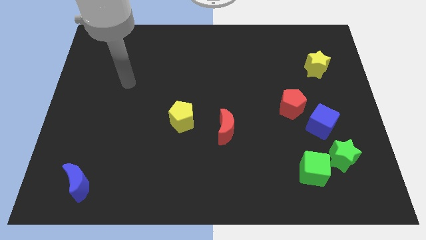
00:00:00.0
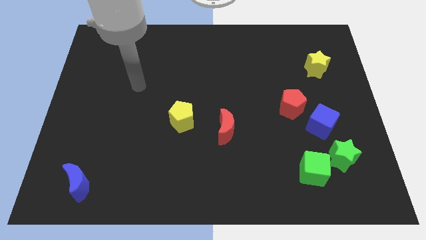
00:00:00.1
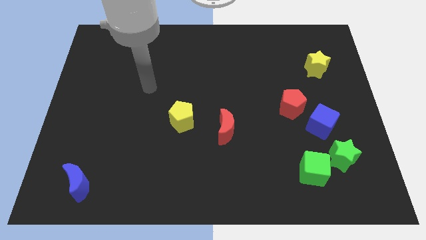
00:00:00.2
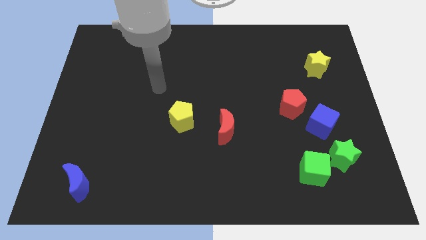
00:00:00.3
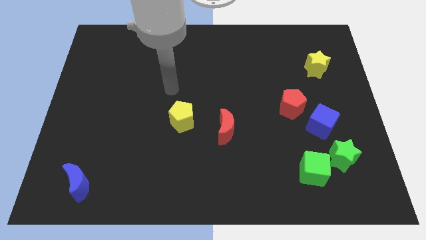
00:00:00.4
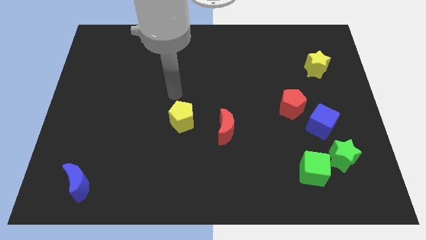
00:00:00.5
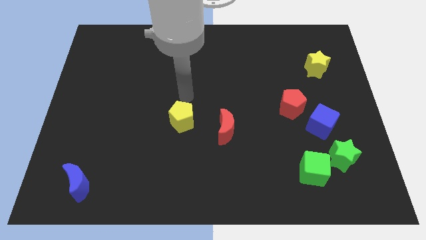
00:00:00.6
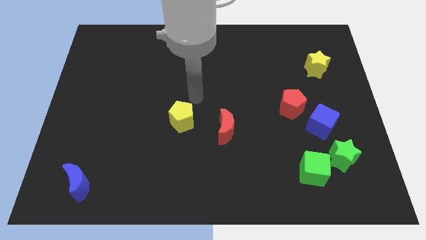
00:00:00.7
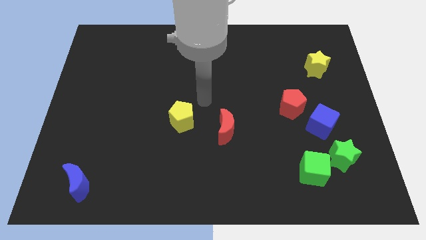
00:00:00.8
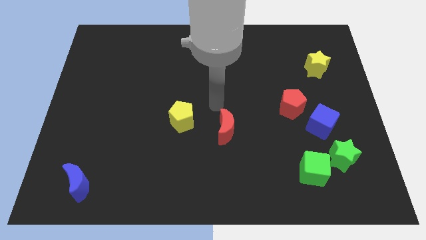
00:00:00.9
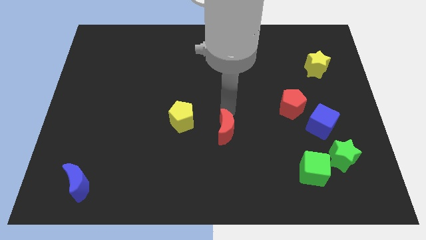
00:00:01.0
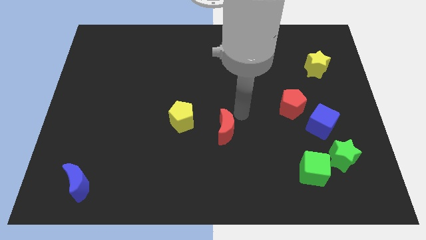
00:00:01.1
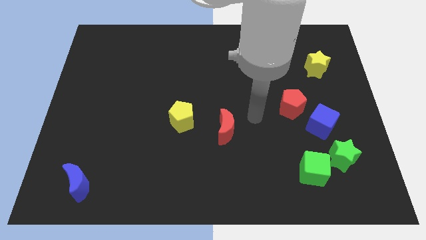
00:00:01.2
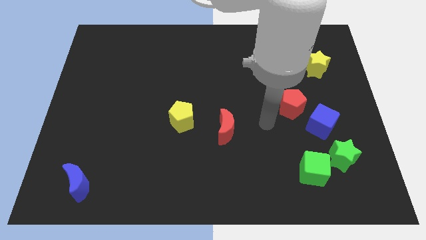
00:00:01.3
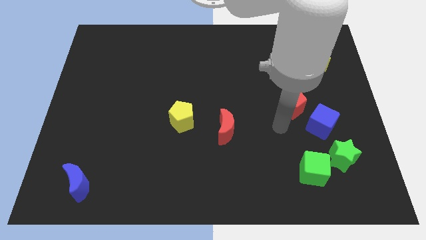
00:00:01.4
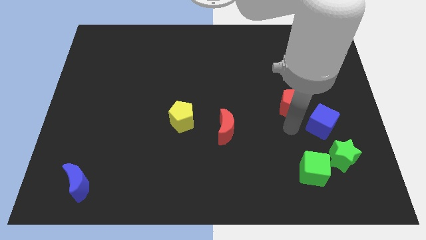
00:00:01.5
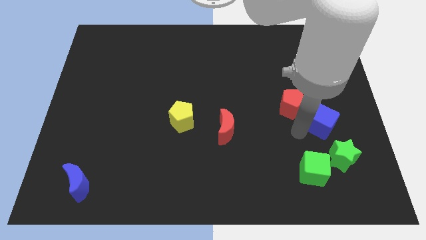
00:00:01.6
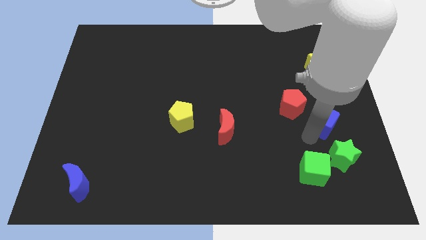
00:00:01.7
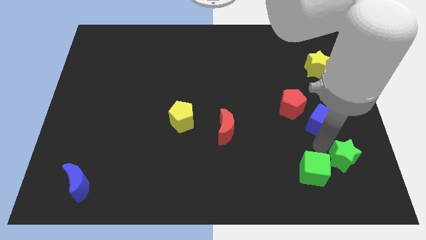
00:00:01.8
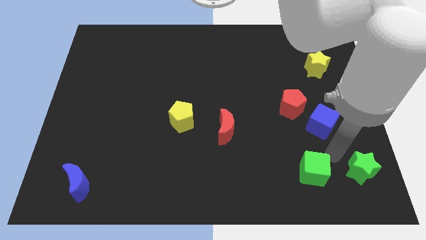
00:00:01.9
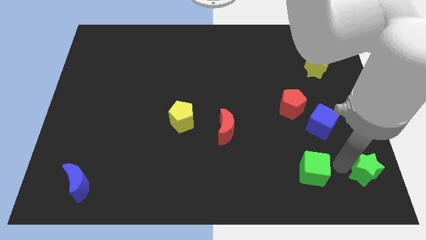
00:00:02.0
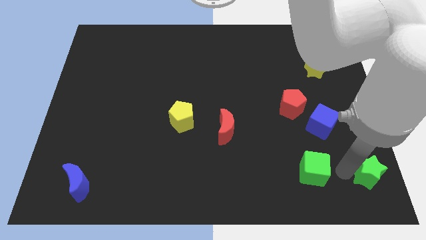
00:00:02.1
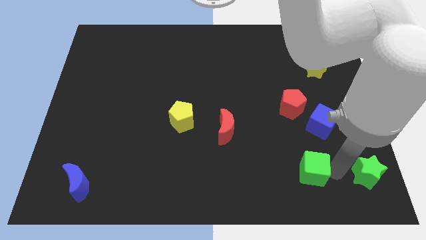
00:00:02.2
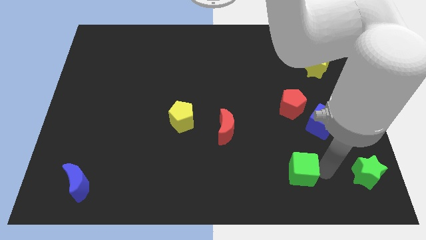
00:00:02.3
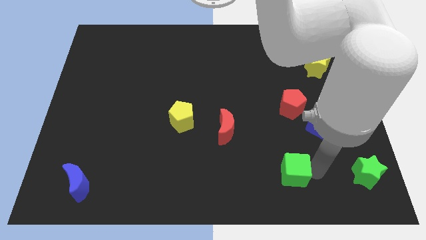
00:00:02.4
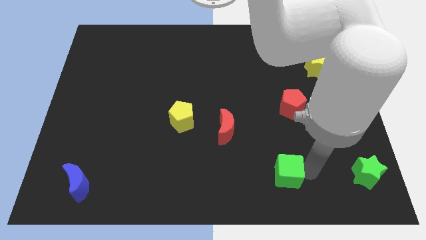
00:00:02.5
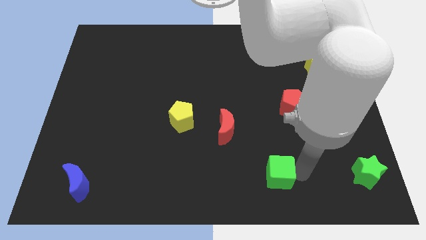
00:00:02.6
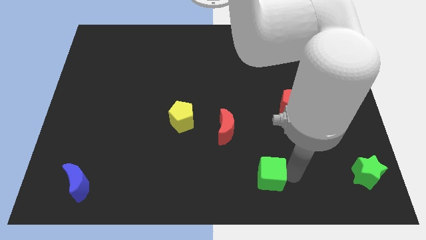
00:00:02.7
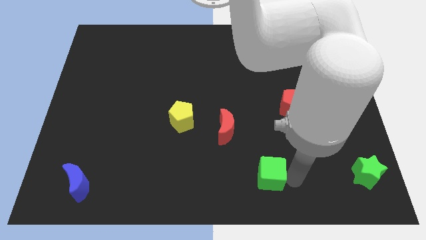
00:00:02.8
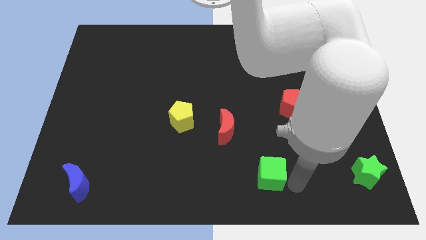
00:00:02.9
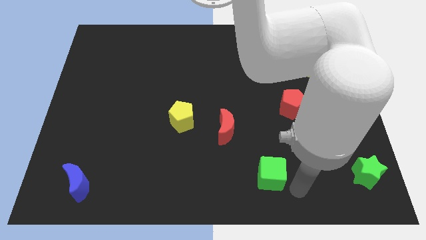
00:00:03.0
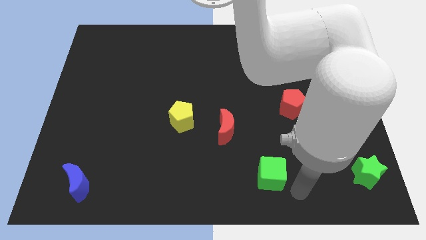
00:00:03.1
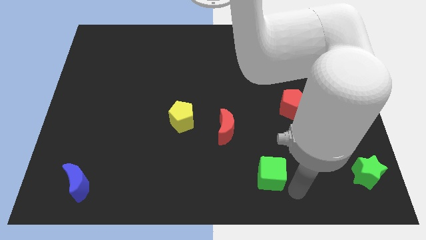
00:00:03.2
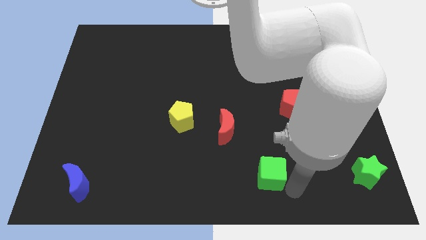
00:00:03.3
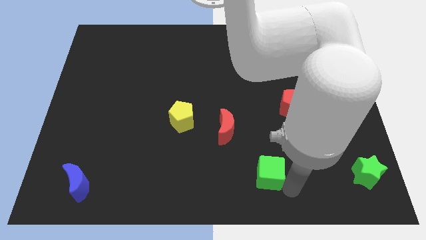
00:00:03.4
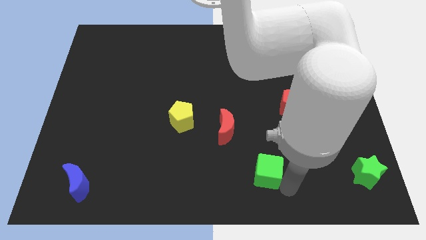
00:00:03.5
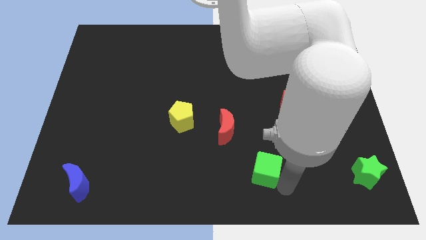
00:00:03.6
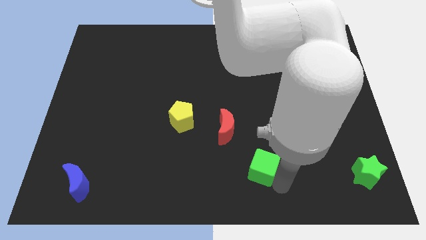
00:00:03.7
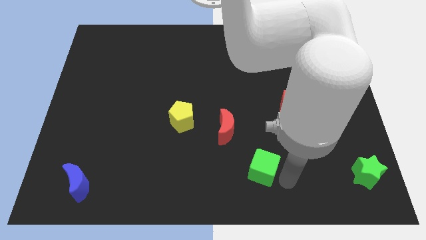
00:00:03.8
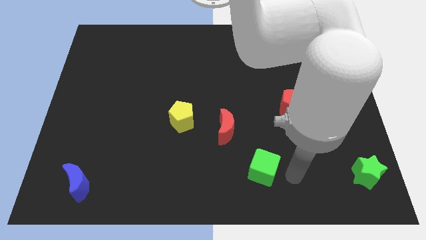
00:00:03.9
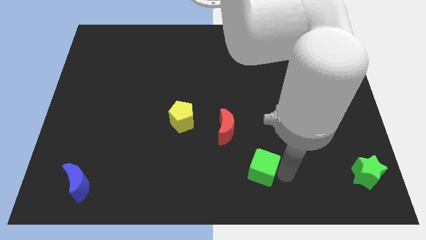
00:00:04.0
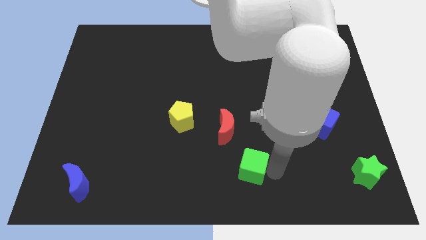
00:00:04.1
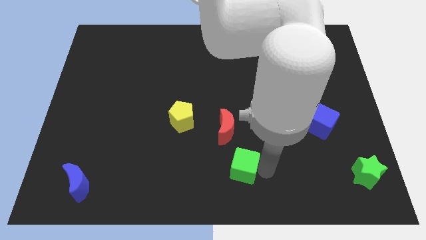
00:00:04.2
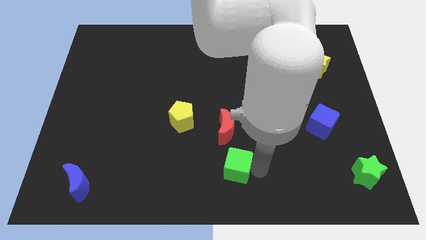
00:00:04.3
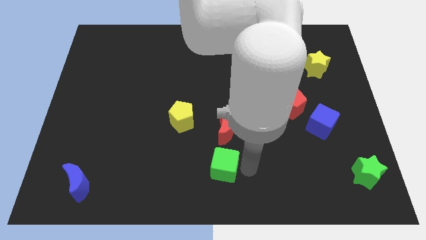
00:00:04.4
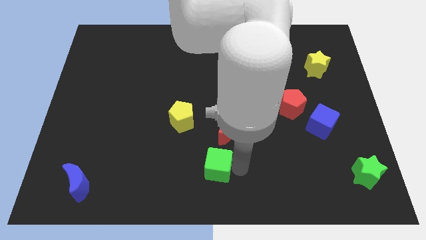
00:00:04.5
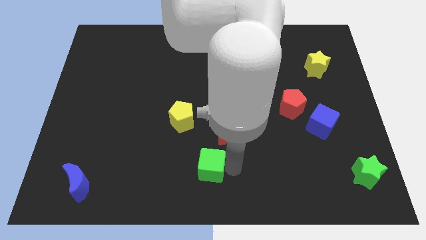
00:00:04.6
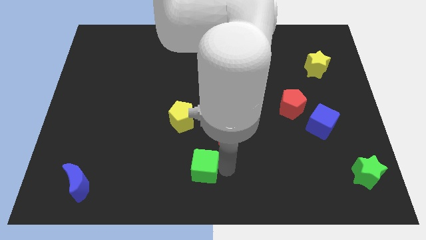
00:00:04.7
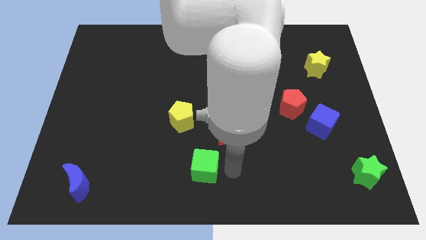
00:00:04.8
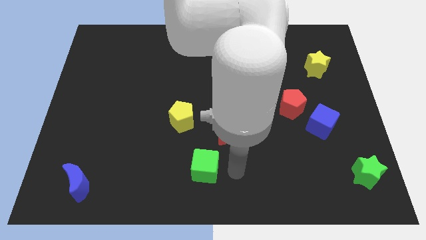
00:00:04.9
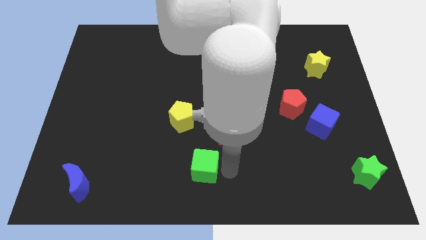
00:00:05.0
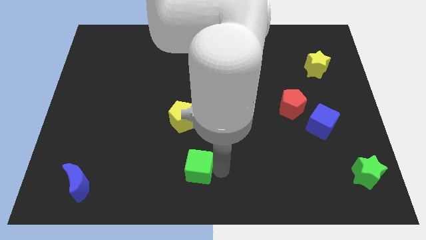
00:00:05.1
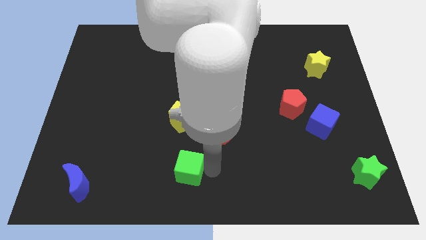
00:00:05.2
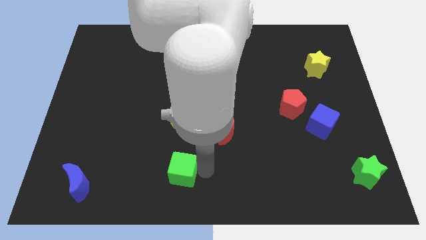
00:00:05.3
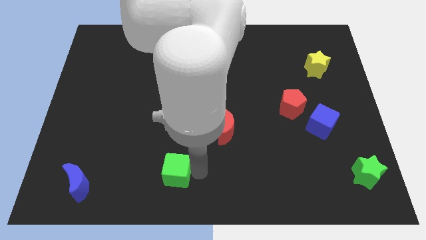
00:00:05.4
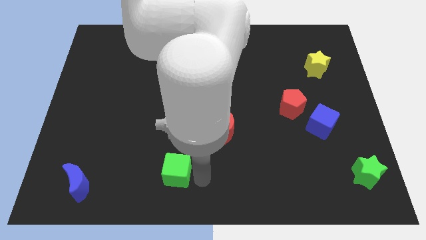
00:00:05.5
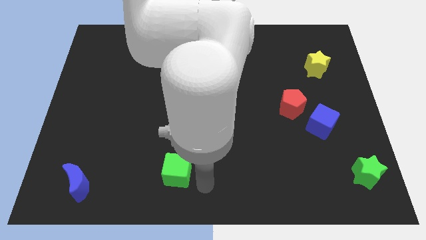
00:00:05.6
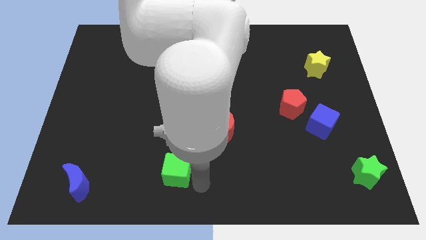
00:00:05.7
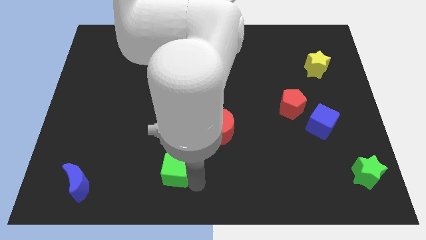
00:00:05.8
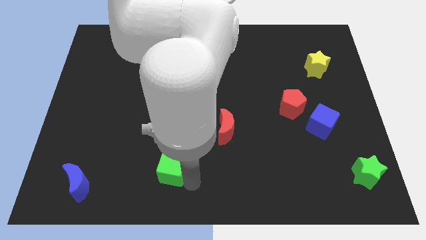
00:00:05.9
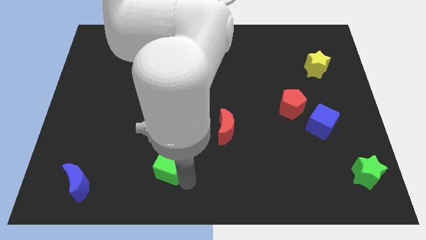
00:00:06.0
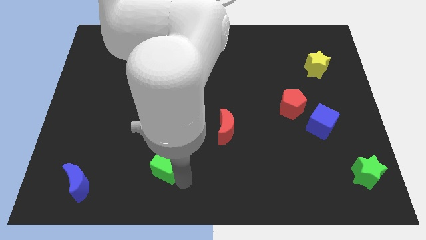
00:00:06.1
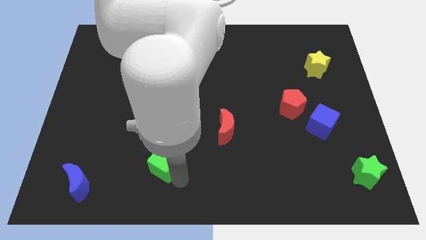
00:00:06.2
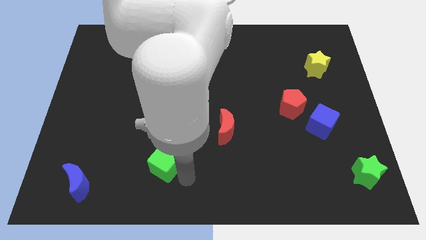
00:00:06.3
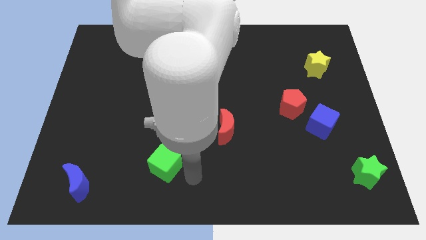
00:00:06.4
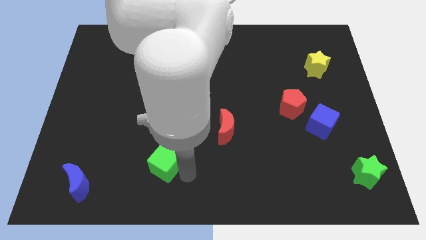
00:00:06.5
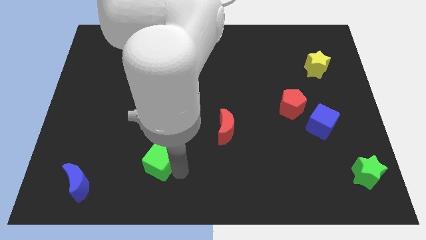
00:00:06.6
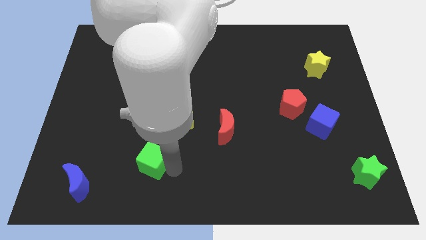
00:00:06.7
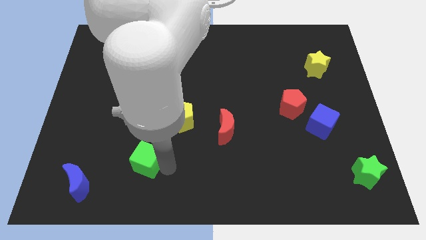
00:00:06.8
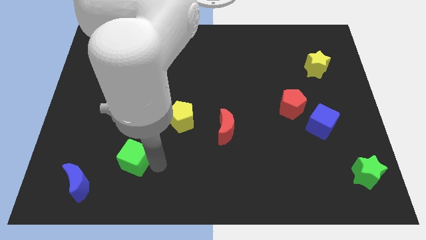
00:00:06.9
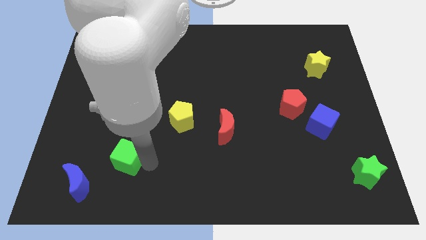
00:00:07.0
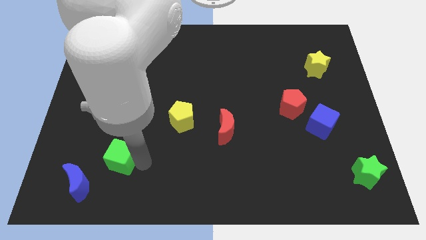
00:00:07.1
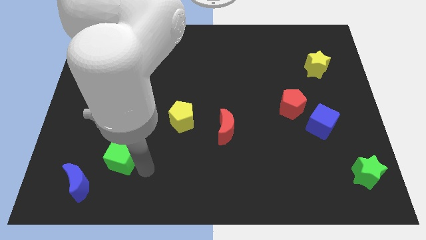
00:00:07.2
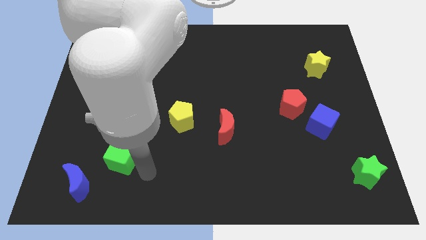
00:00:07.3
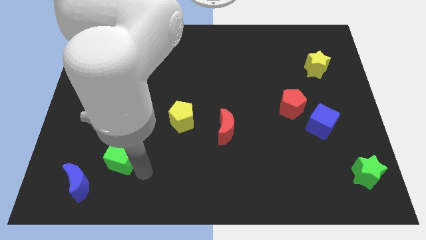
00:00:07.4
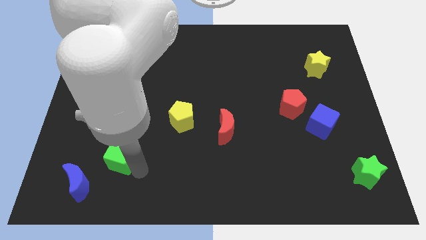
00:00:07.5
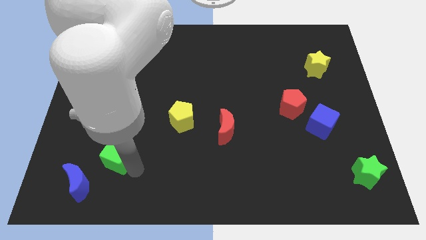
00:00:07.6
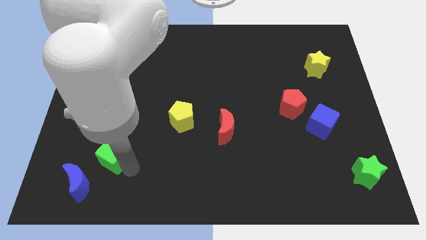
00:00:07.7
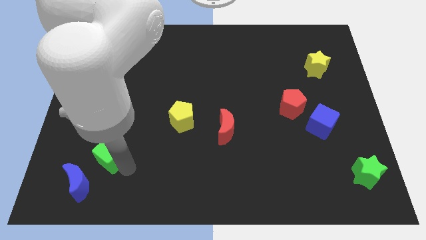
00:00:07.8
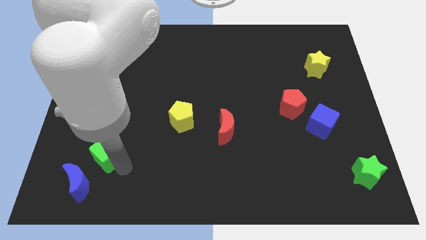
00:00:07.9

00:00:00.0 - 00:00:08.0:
move the green cube above the blue moon
